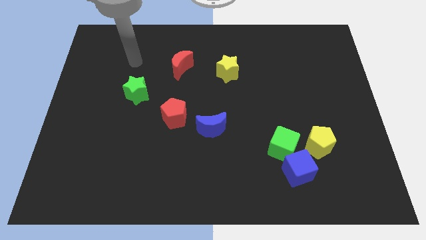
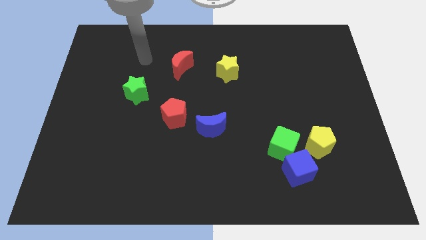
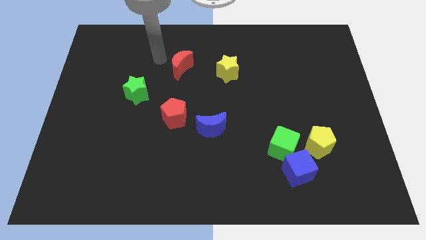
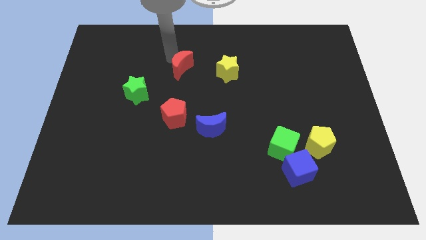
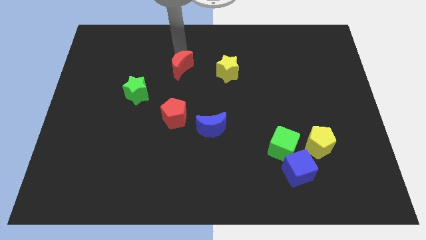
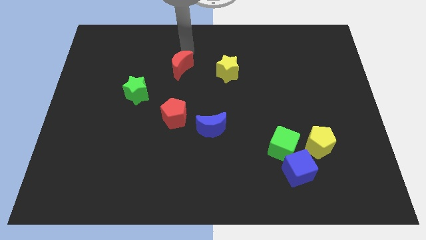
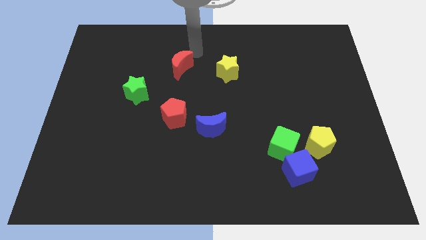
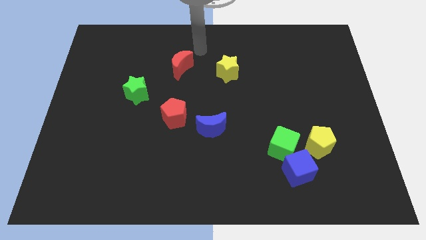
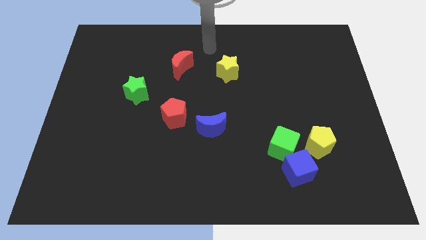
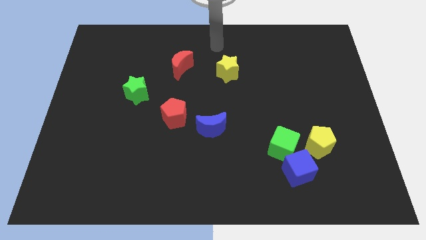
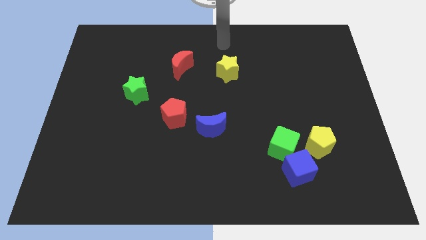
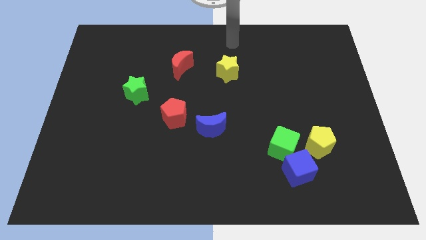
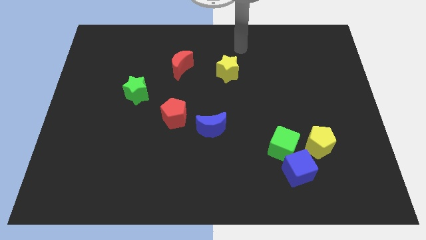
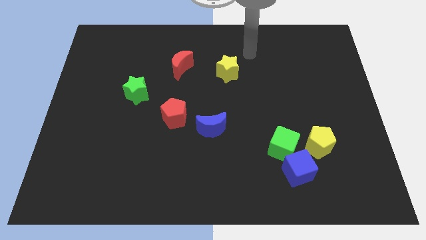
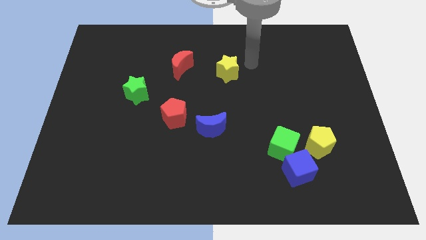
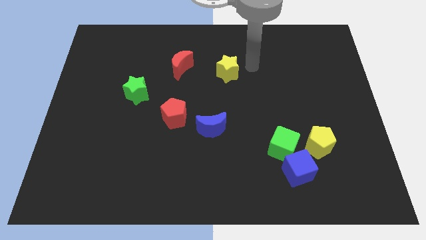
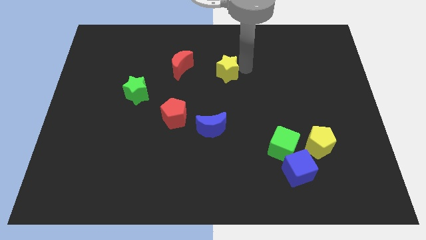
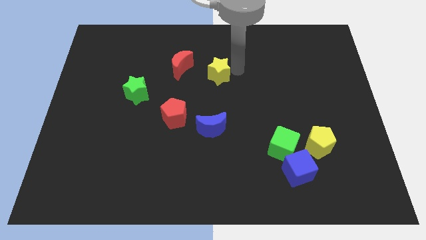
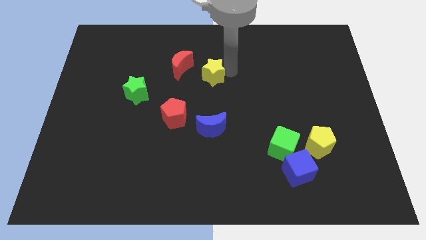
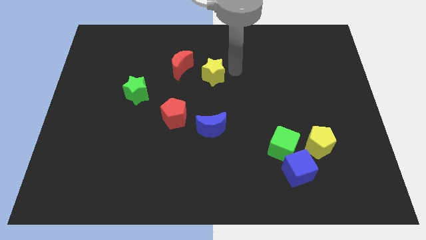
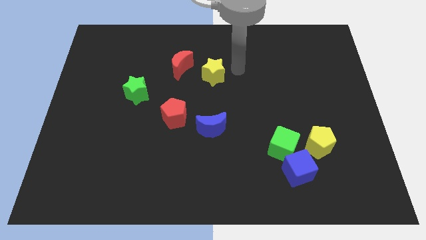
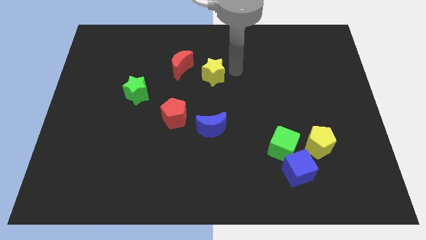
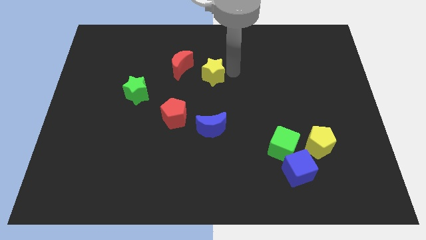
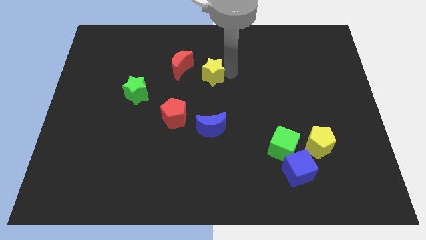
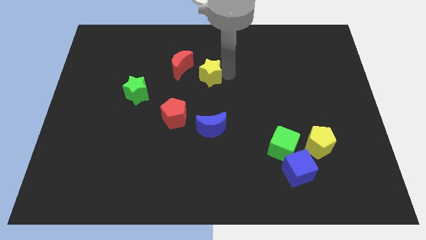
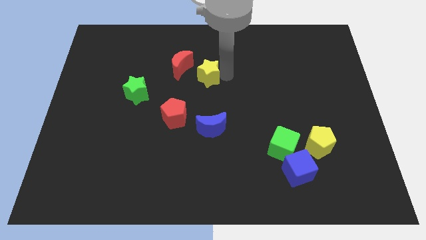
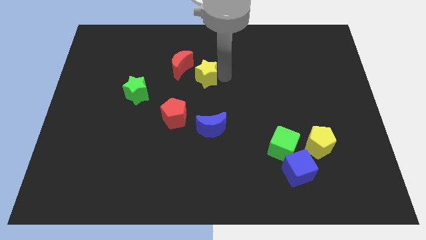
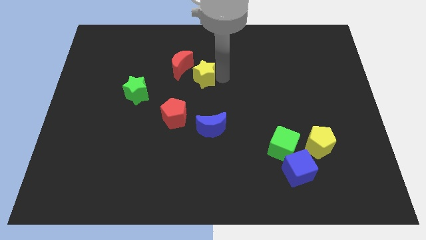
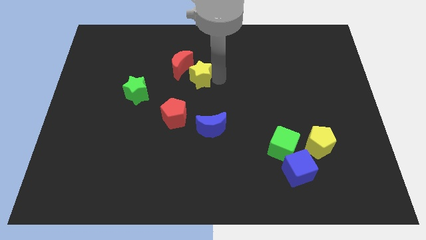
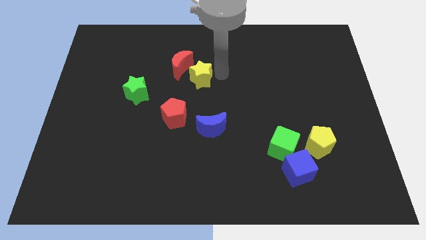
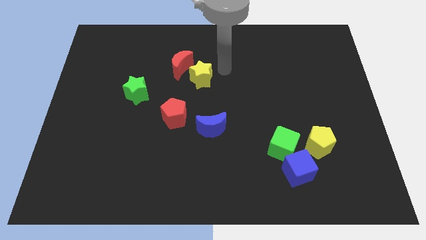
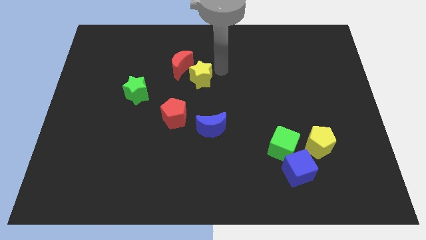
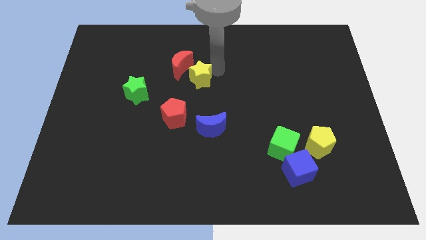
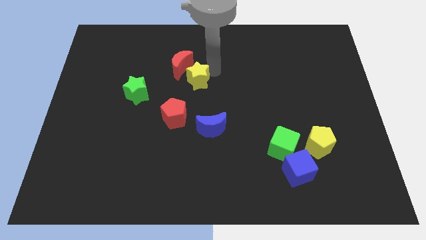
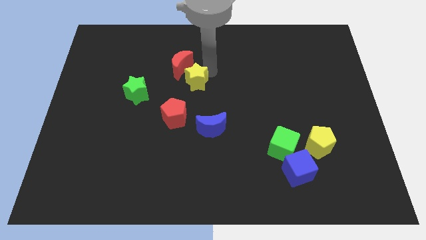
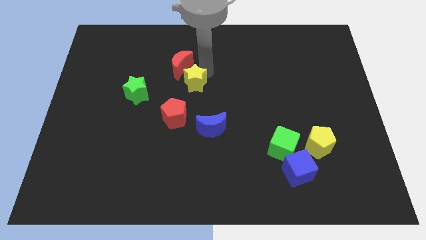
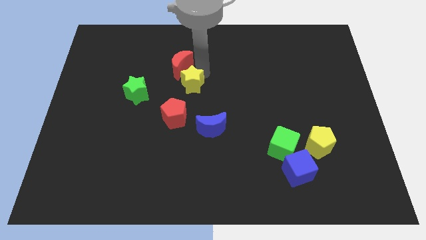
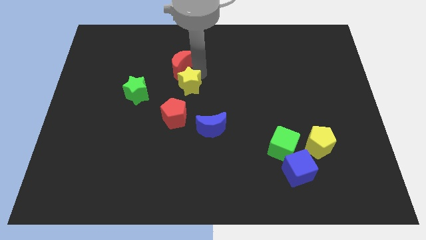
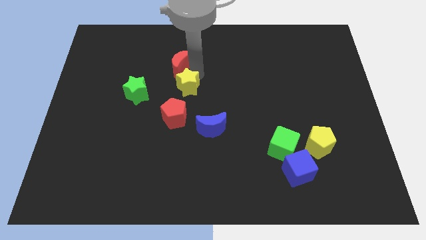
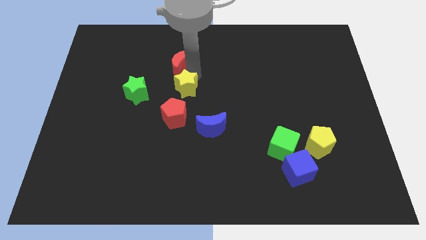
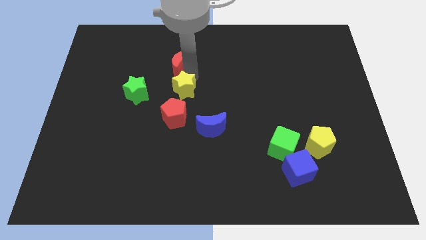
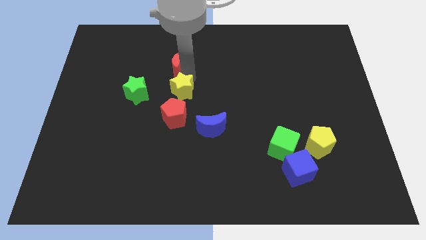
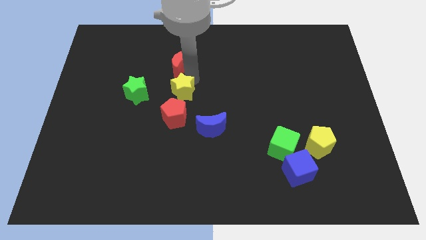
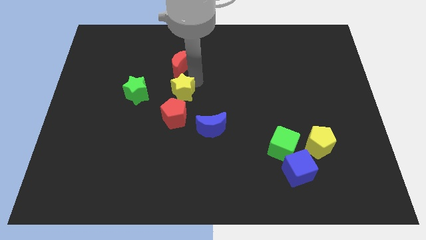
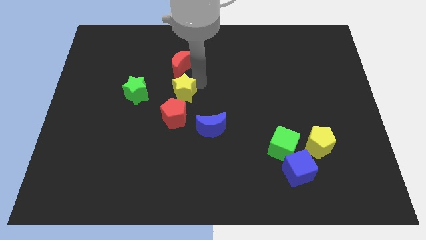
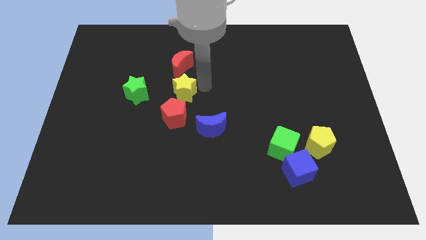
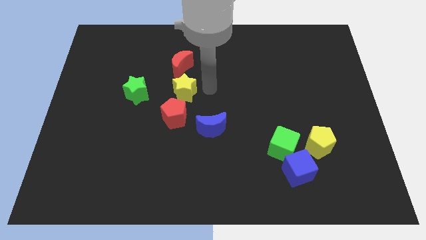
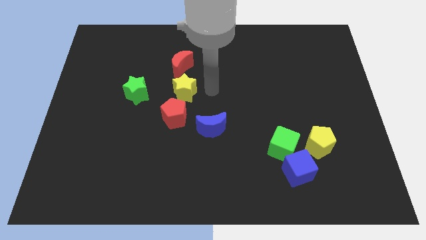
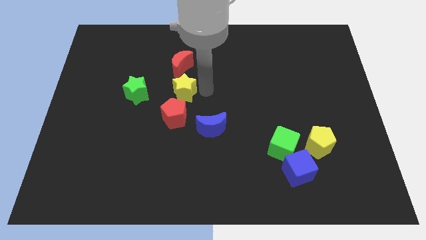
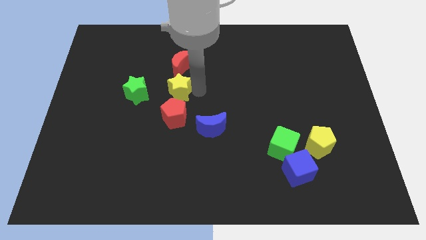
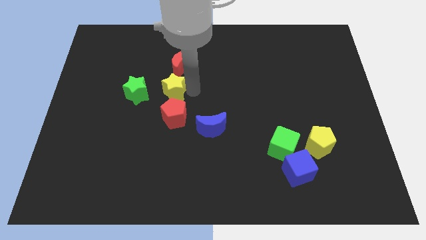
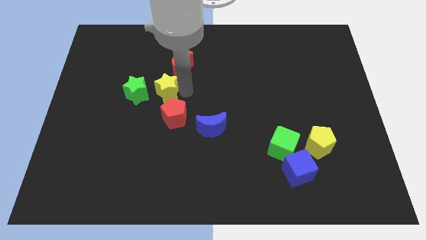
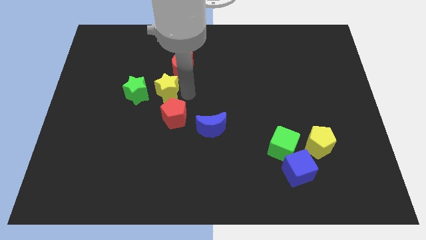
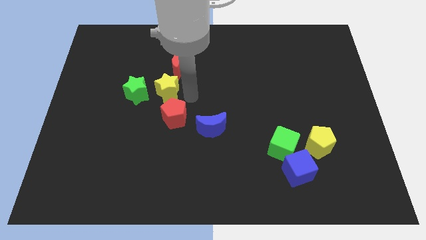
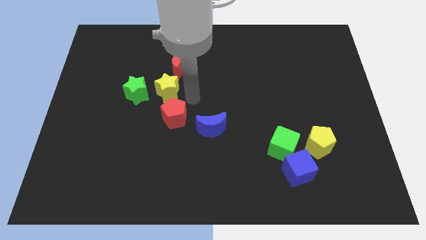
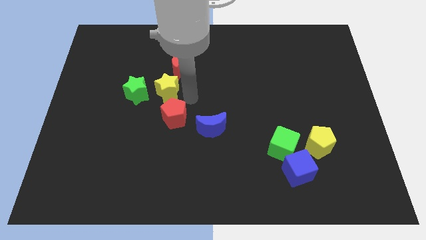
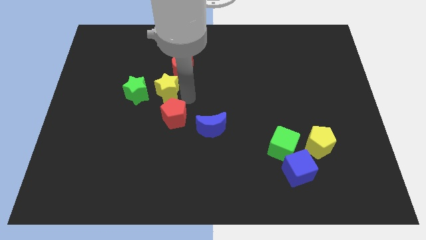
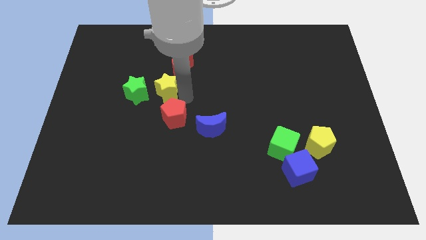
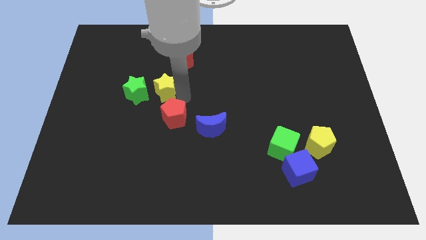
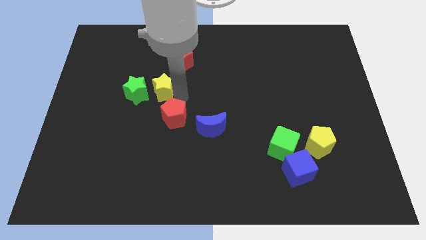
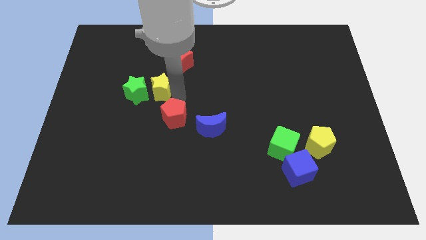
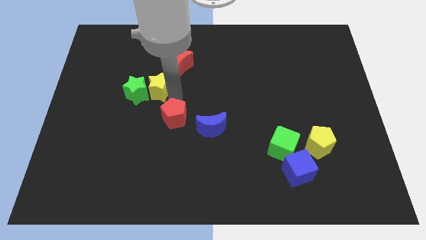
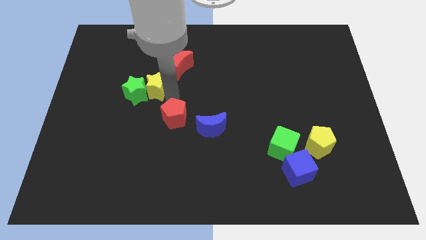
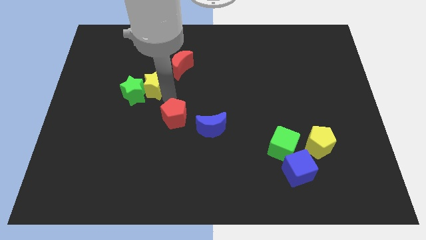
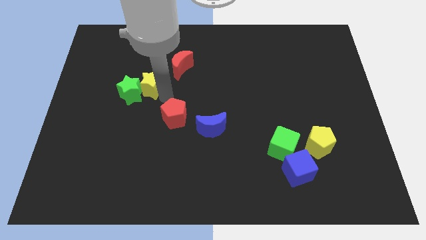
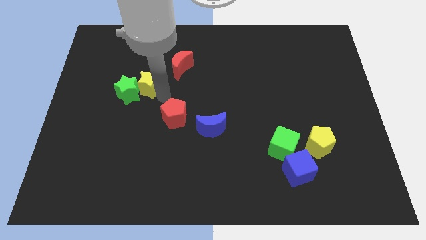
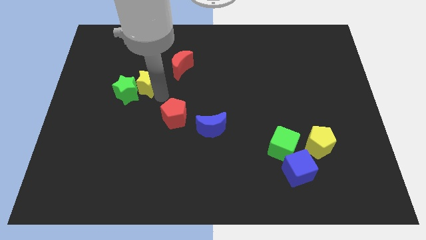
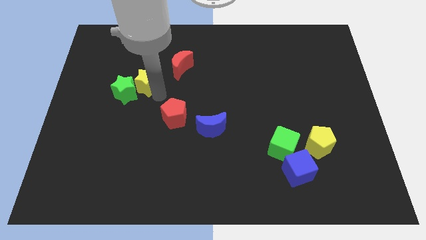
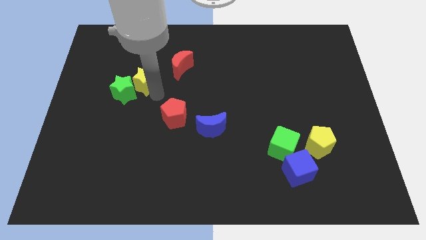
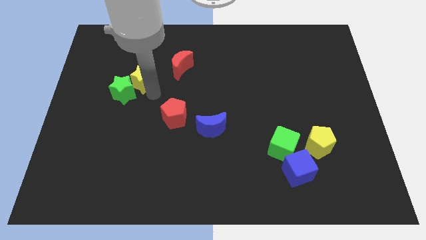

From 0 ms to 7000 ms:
move the yellow star to the left

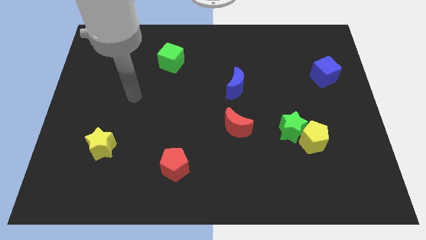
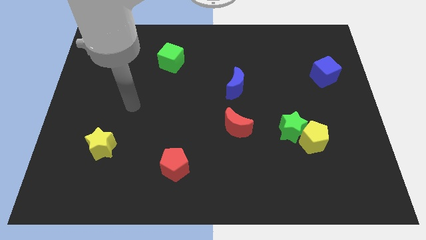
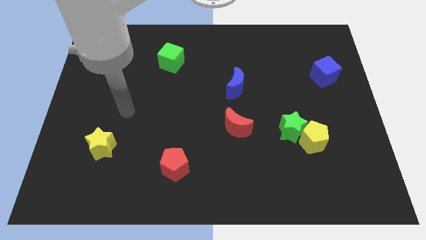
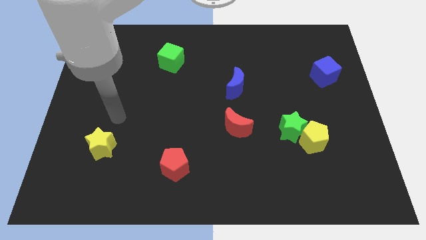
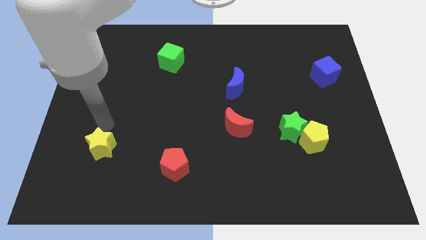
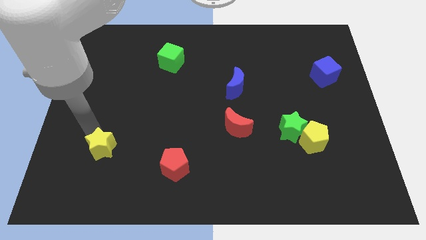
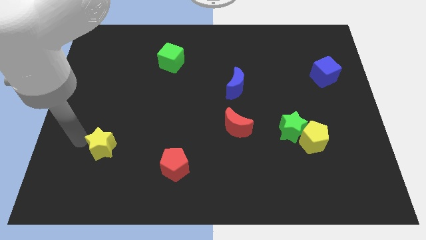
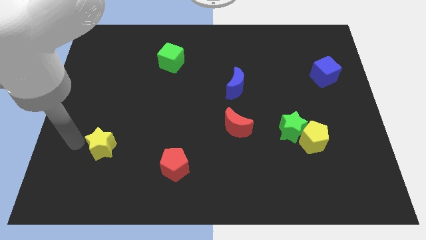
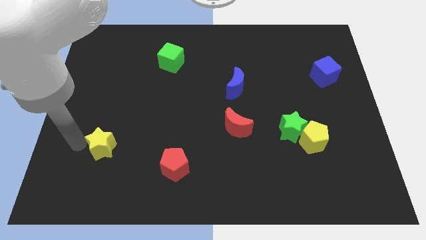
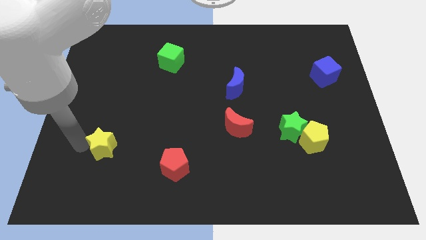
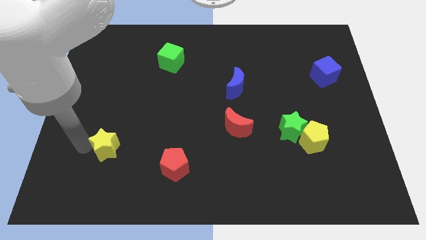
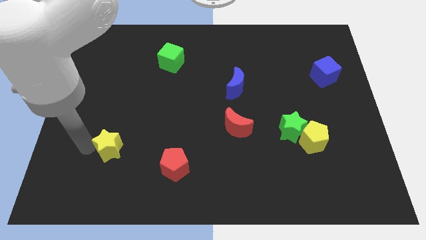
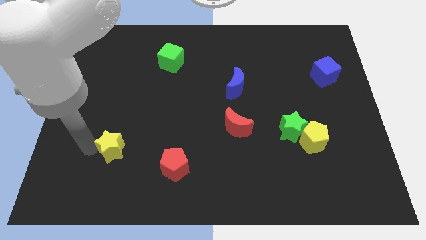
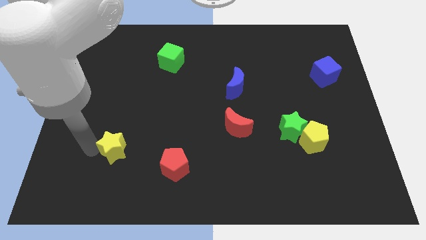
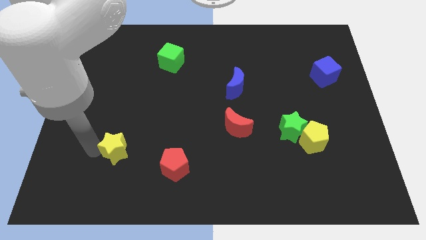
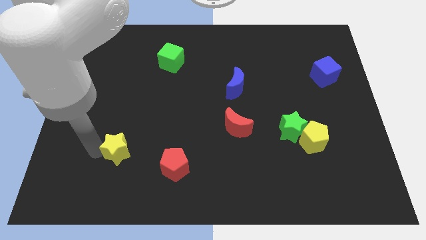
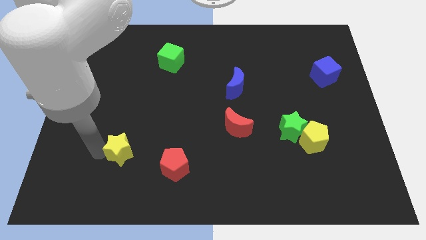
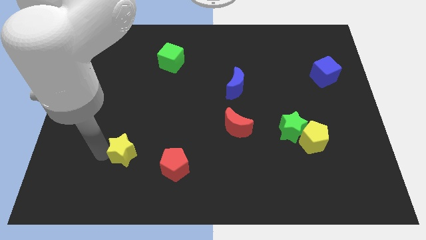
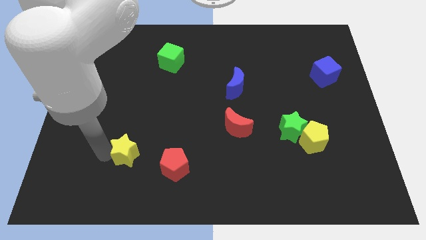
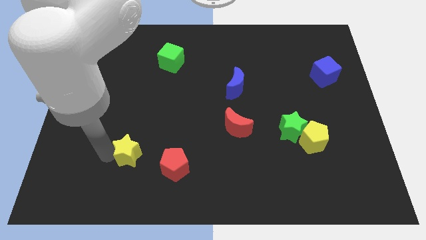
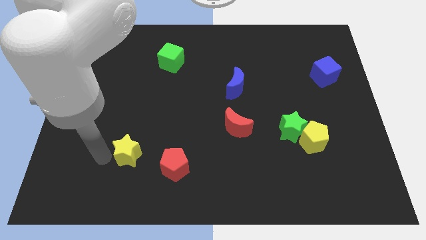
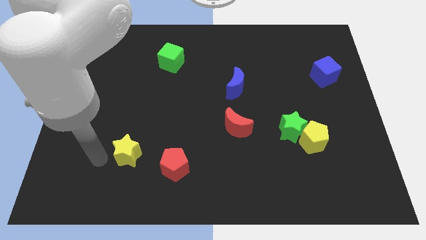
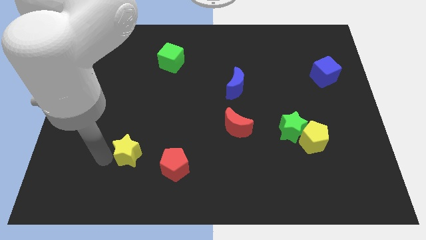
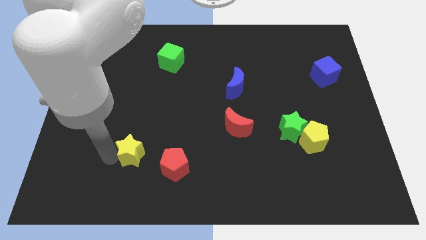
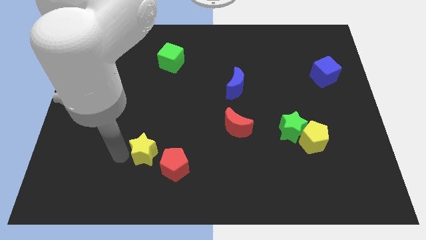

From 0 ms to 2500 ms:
slide the yellow star to the right a little bit
